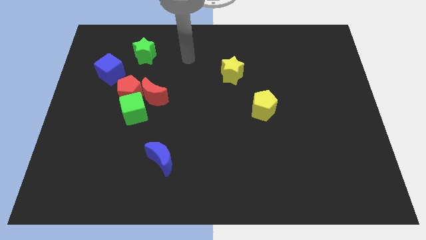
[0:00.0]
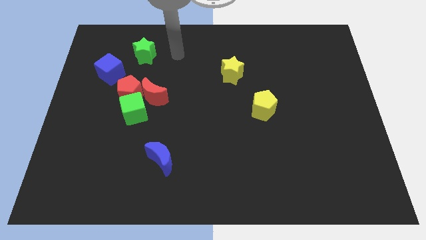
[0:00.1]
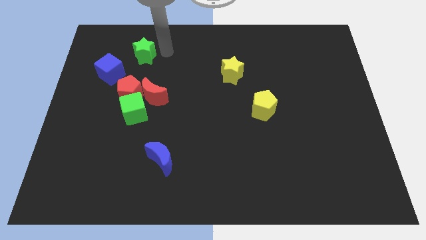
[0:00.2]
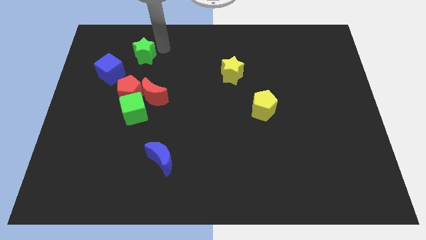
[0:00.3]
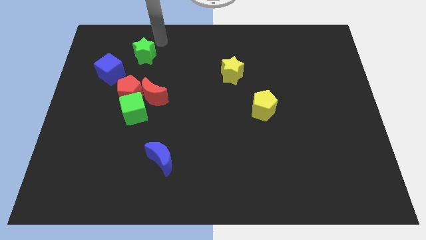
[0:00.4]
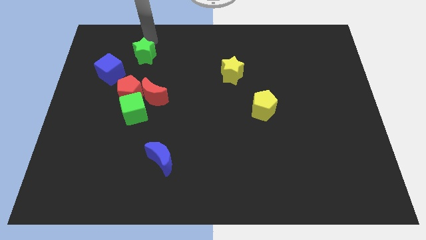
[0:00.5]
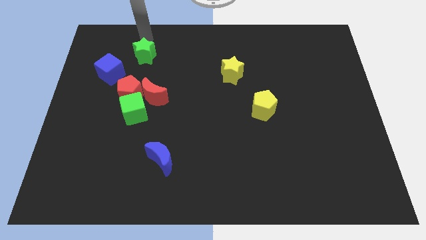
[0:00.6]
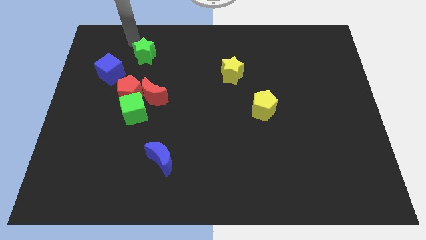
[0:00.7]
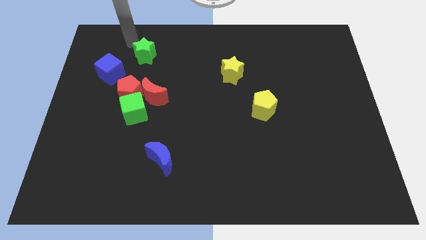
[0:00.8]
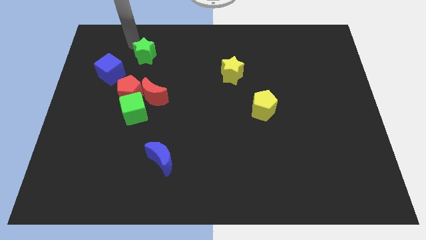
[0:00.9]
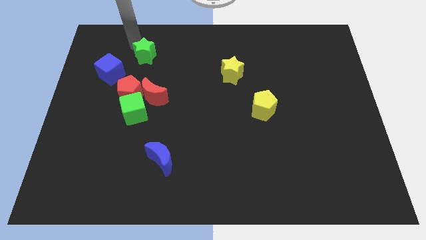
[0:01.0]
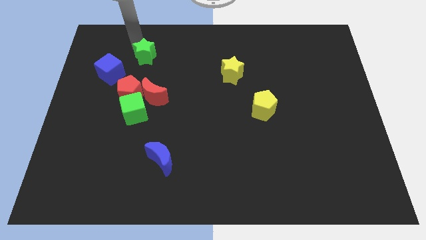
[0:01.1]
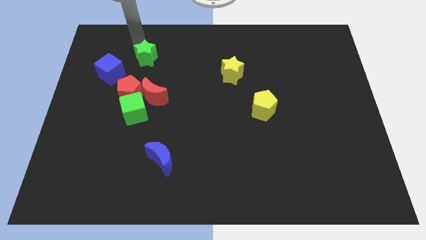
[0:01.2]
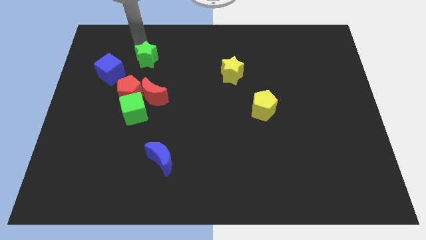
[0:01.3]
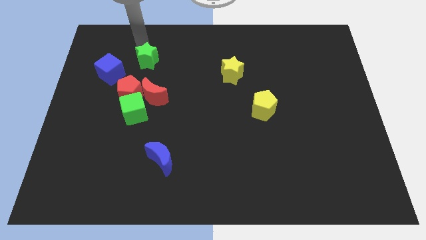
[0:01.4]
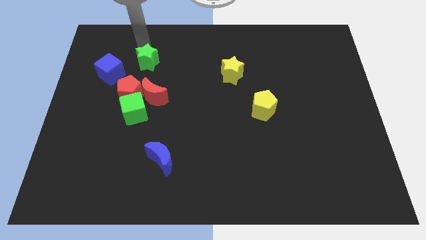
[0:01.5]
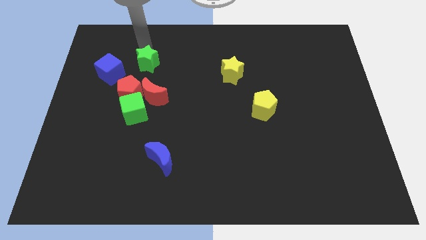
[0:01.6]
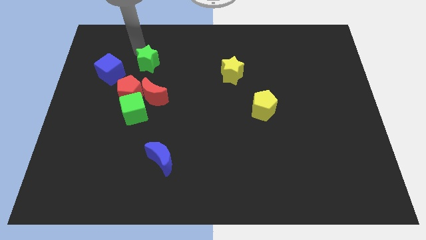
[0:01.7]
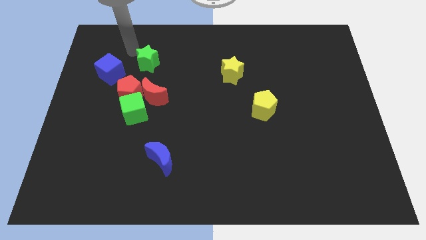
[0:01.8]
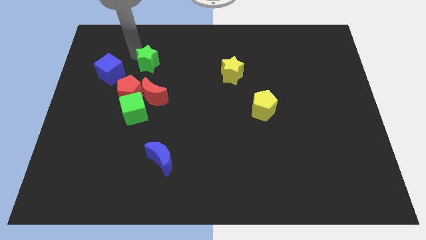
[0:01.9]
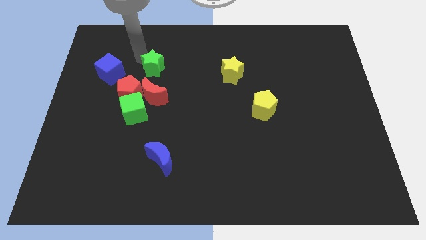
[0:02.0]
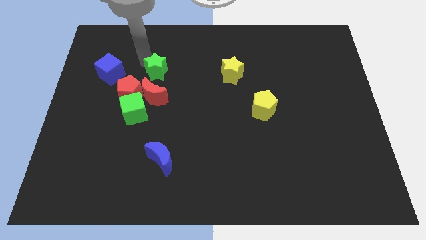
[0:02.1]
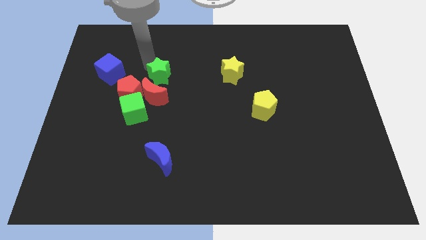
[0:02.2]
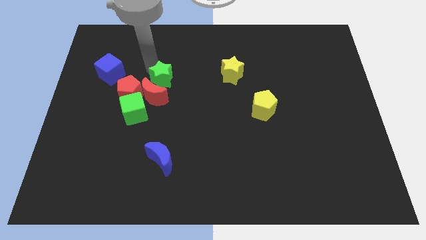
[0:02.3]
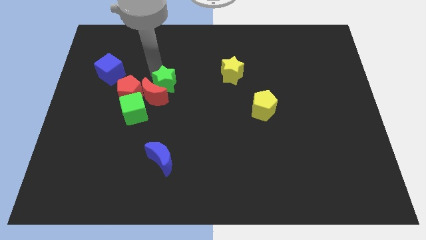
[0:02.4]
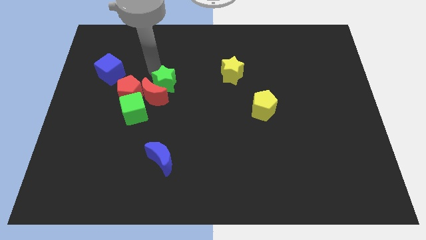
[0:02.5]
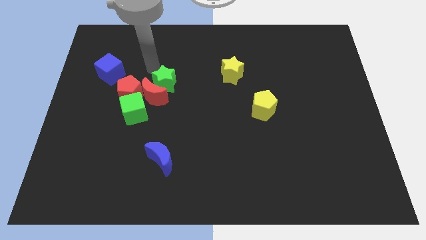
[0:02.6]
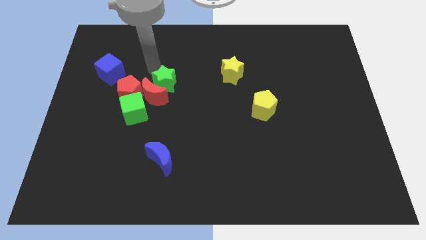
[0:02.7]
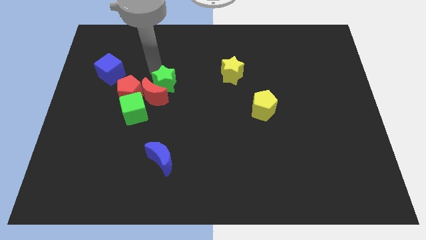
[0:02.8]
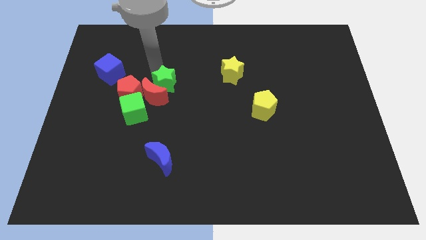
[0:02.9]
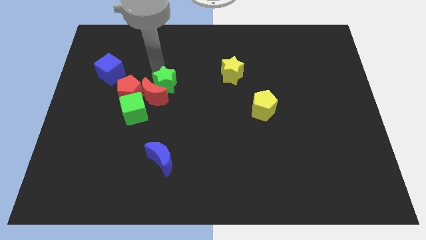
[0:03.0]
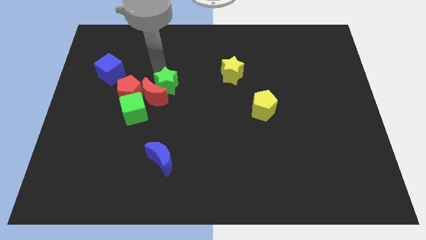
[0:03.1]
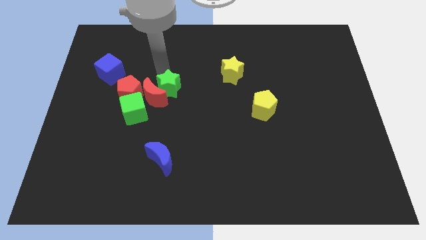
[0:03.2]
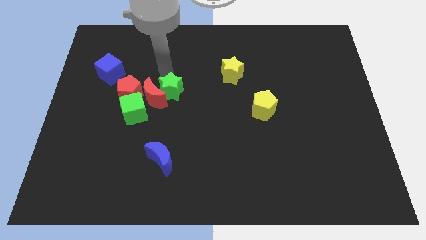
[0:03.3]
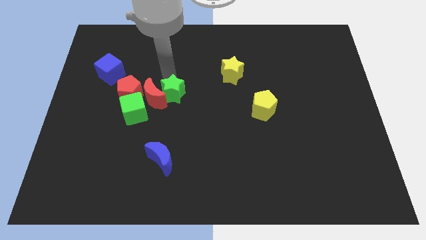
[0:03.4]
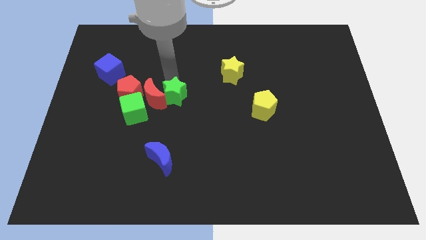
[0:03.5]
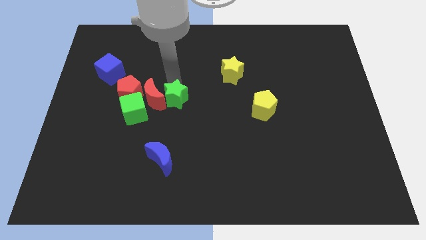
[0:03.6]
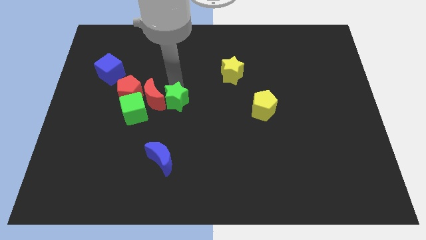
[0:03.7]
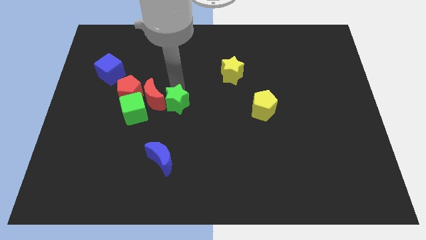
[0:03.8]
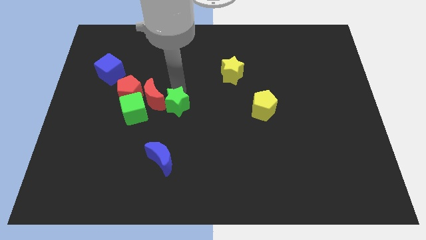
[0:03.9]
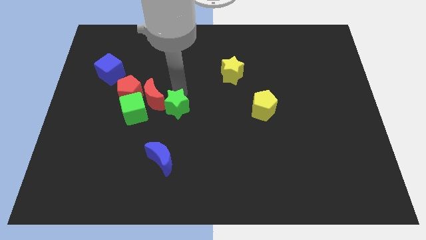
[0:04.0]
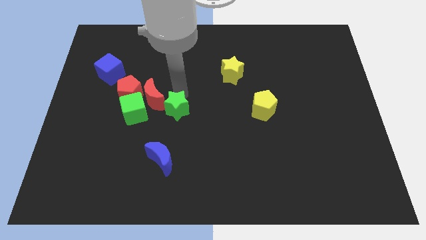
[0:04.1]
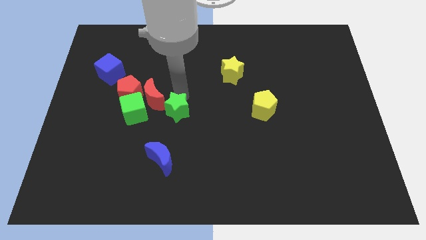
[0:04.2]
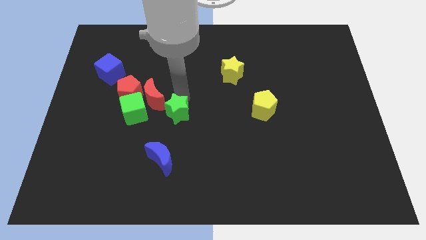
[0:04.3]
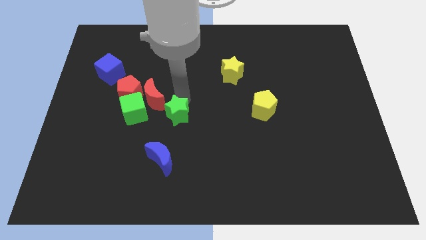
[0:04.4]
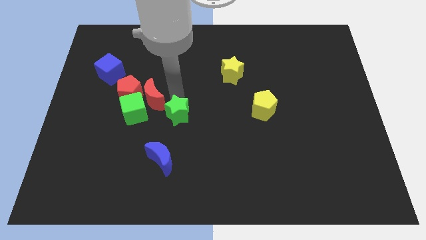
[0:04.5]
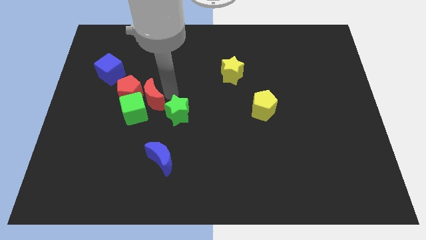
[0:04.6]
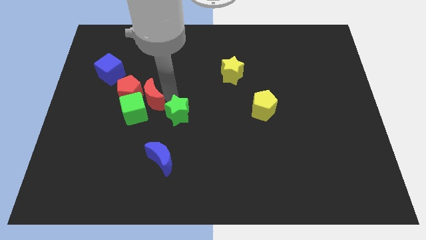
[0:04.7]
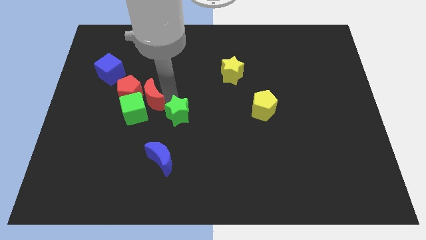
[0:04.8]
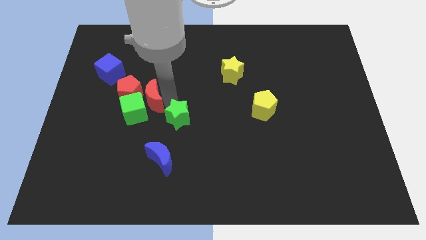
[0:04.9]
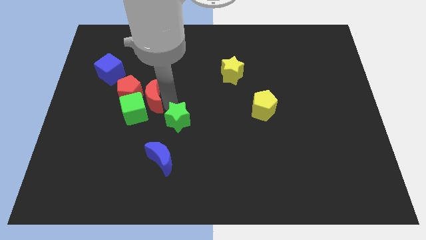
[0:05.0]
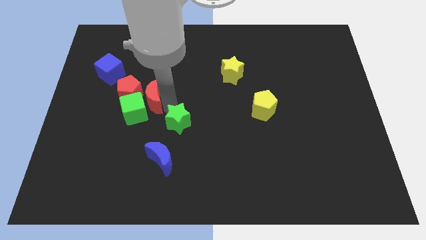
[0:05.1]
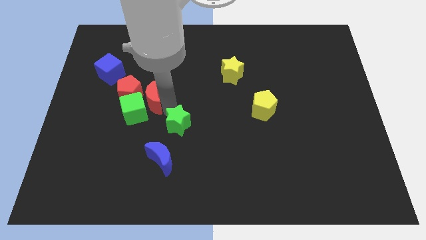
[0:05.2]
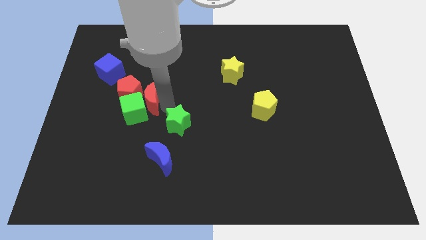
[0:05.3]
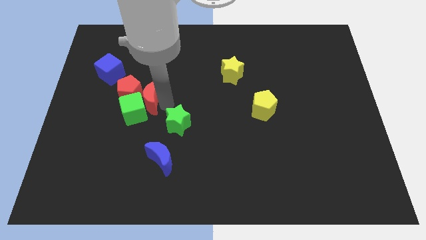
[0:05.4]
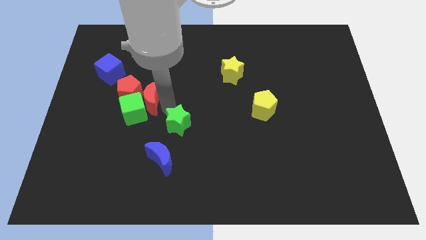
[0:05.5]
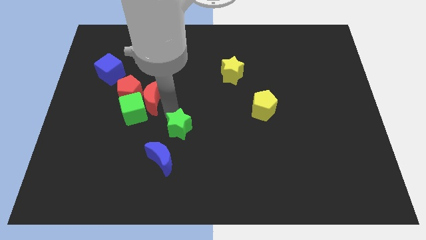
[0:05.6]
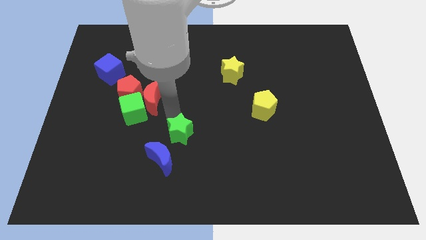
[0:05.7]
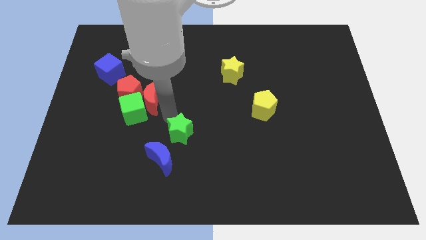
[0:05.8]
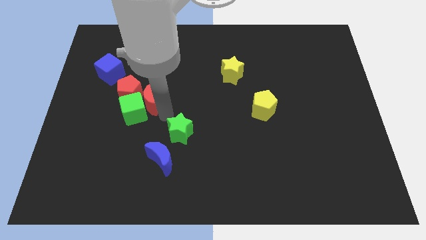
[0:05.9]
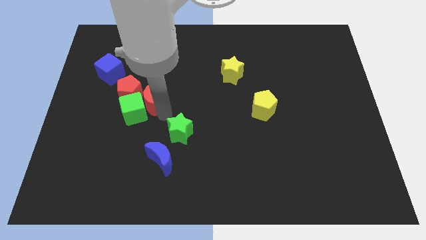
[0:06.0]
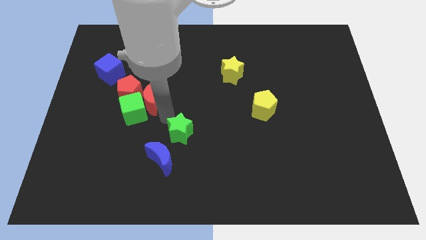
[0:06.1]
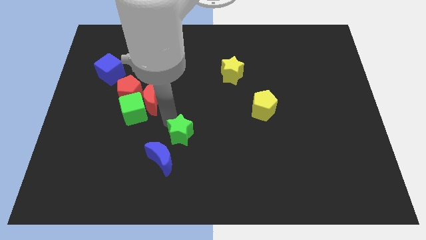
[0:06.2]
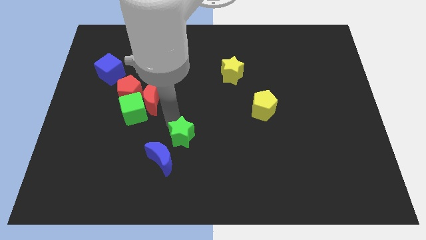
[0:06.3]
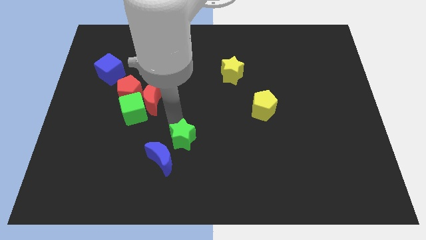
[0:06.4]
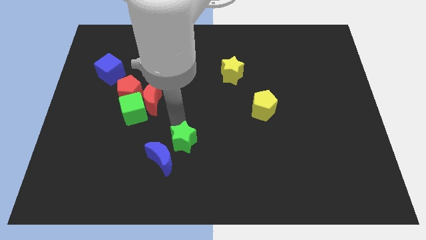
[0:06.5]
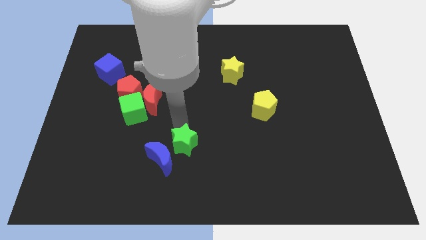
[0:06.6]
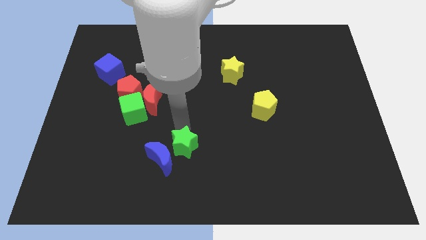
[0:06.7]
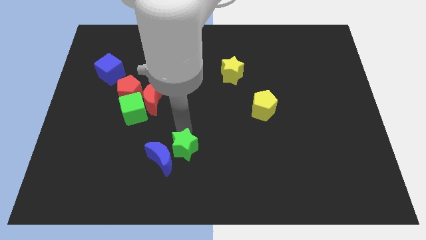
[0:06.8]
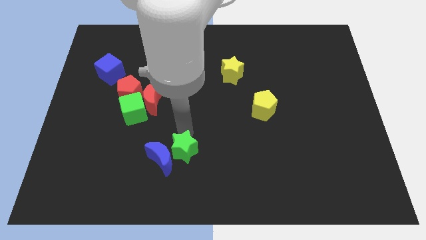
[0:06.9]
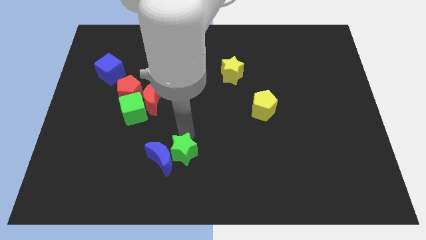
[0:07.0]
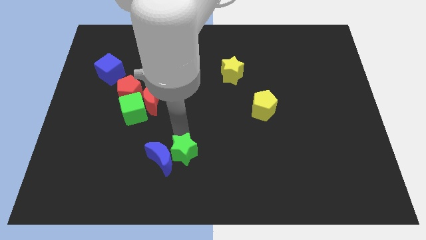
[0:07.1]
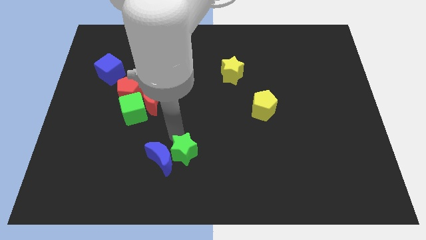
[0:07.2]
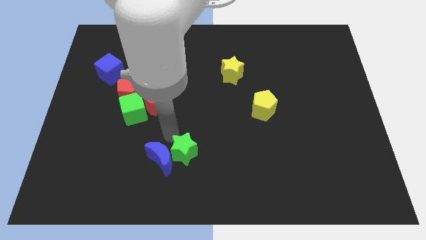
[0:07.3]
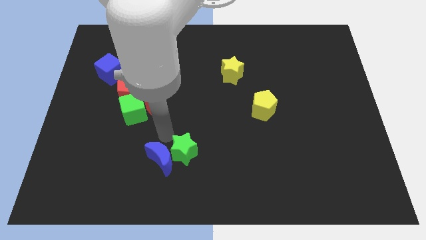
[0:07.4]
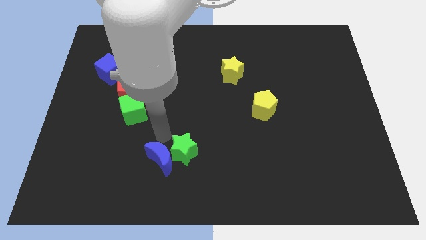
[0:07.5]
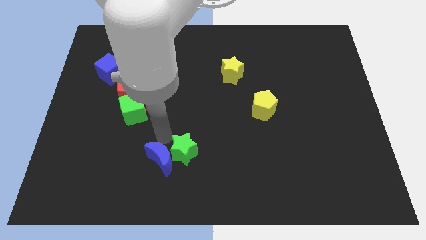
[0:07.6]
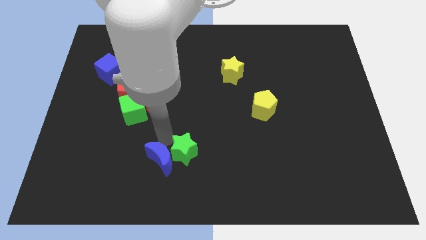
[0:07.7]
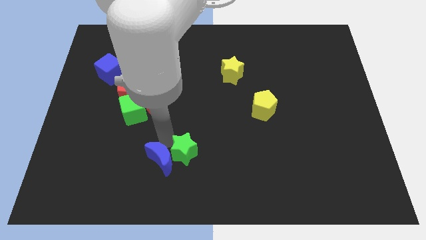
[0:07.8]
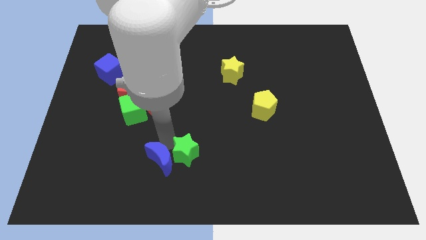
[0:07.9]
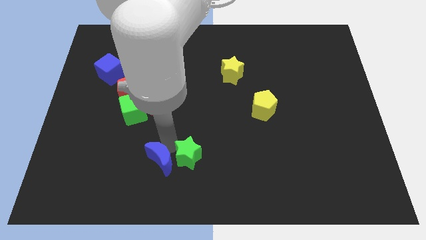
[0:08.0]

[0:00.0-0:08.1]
push the green star to the bottom
